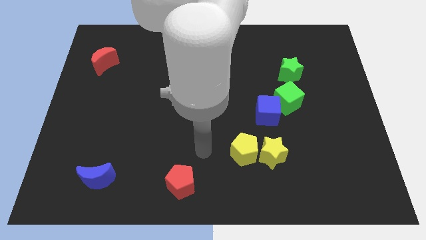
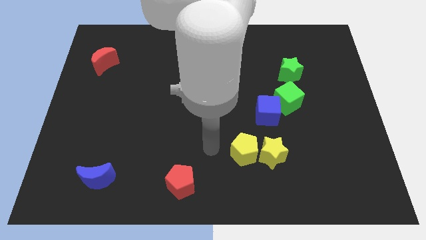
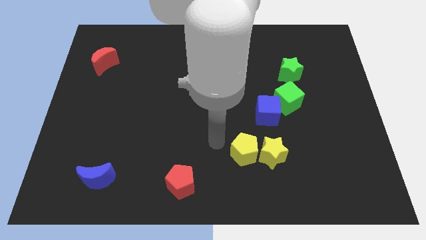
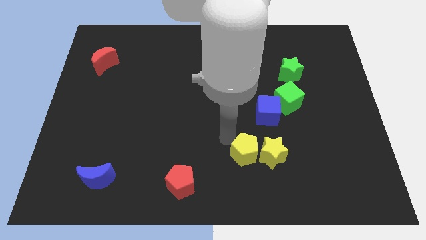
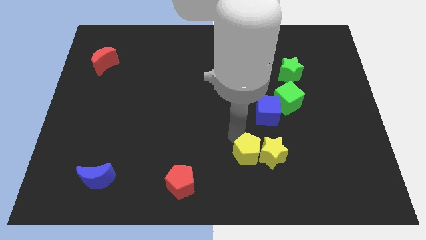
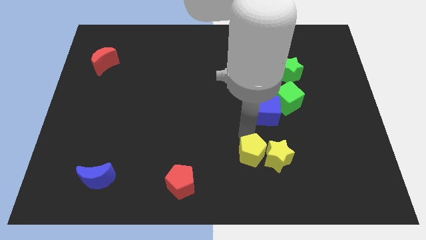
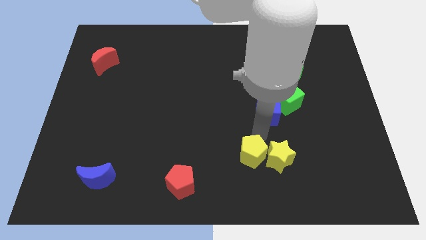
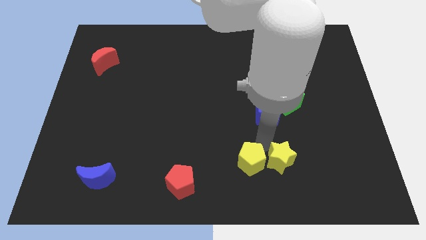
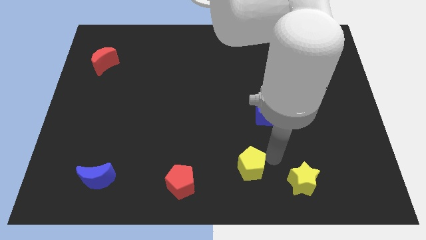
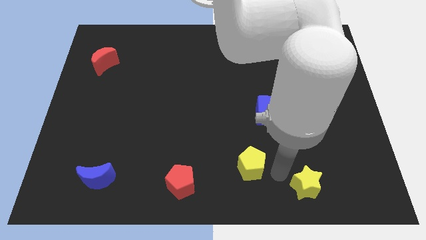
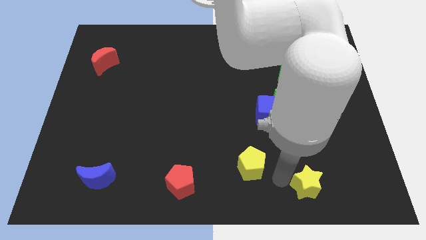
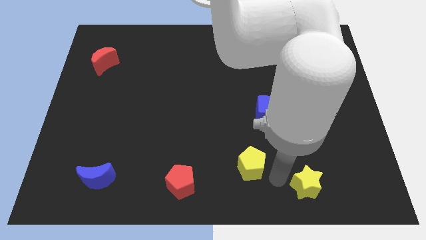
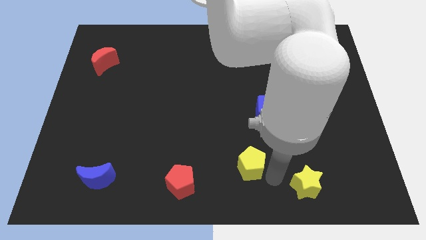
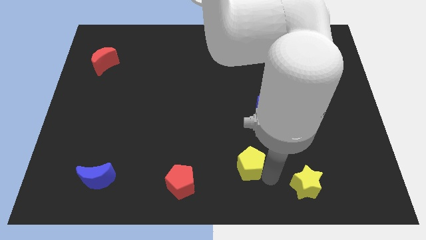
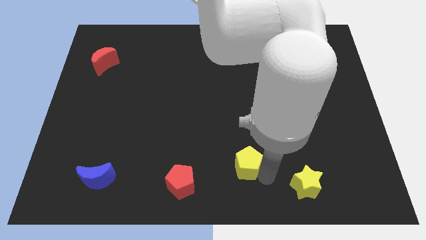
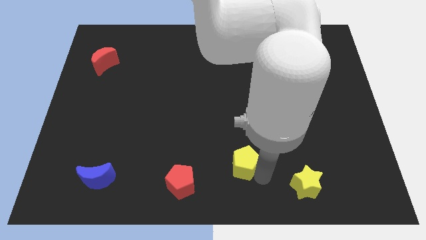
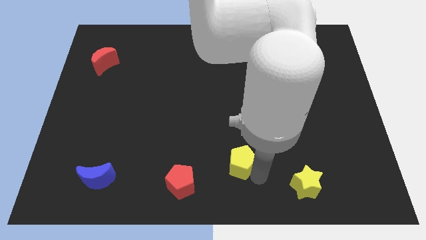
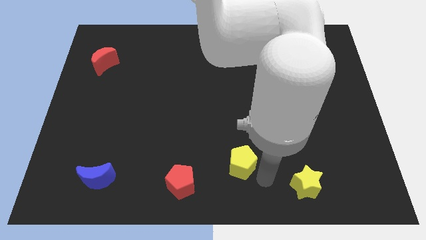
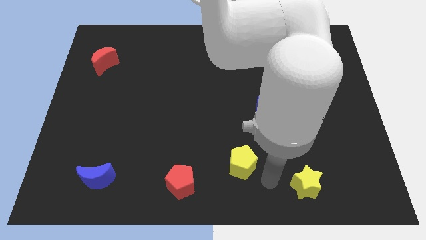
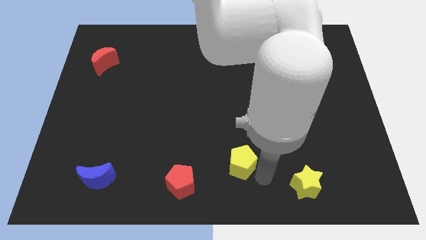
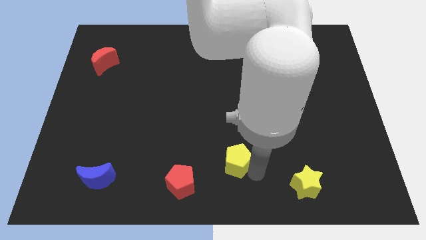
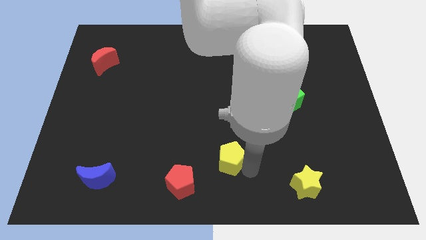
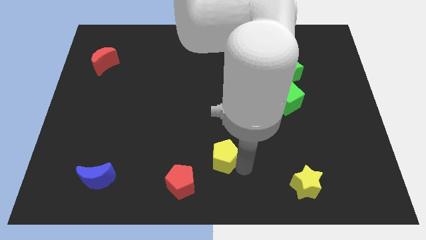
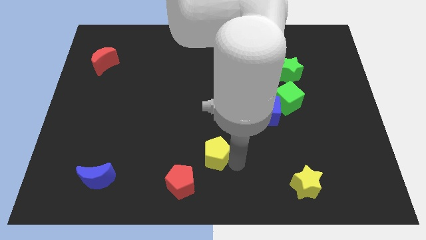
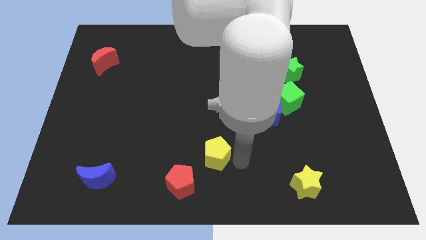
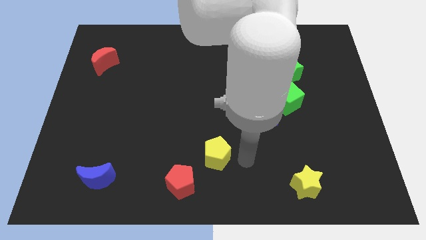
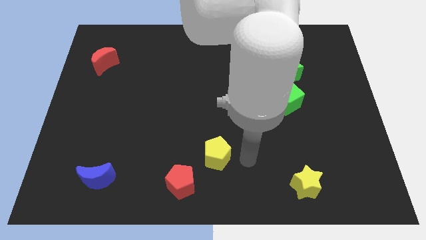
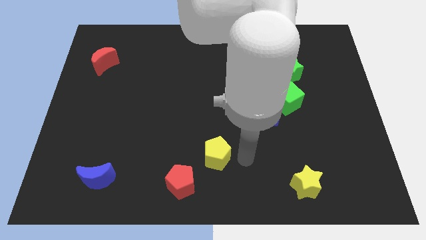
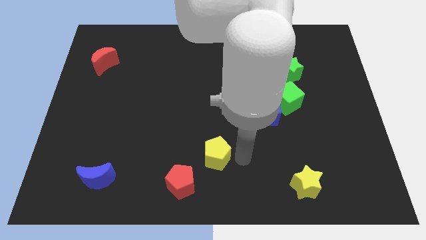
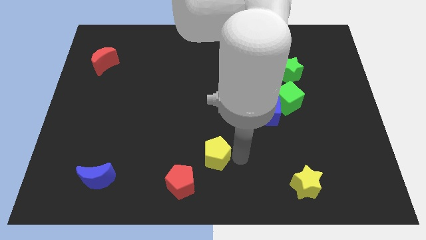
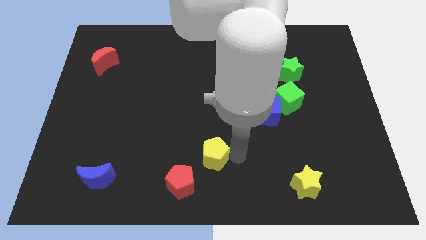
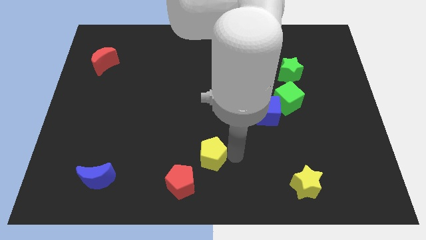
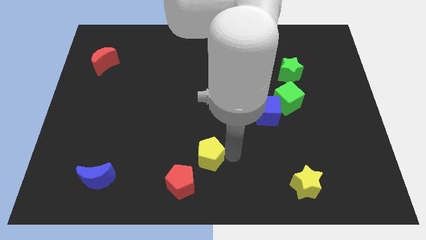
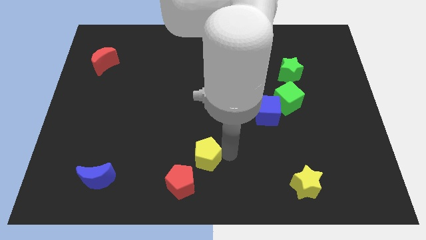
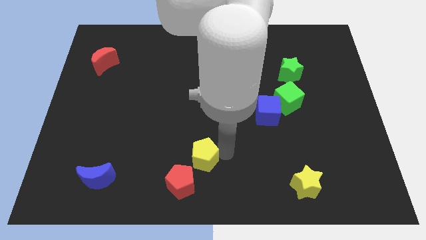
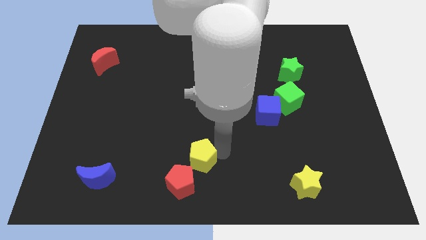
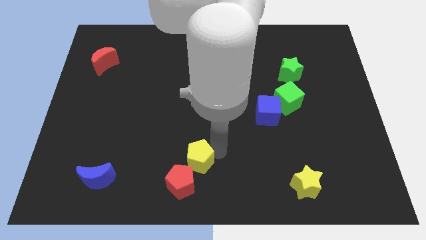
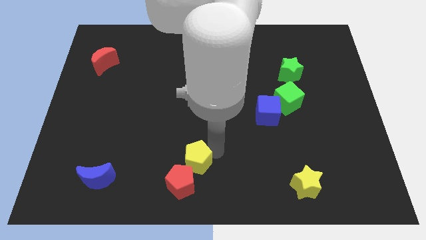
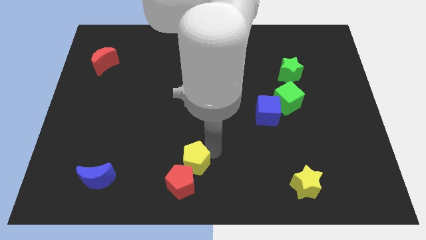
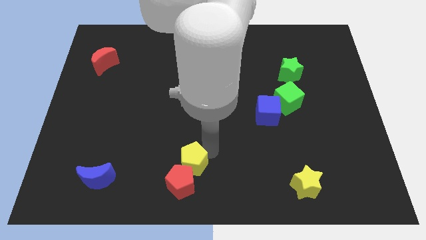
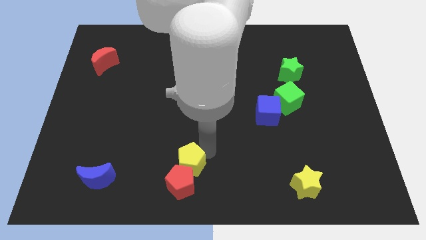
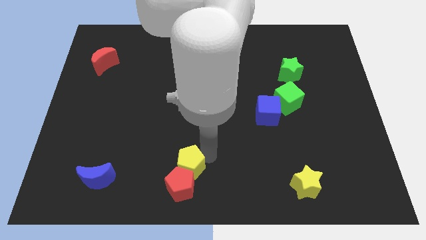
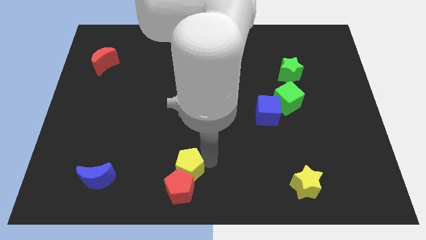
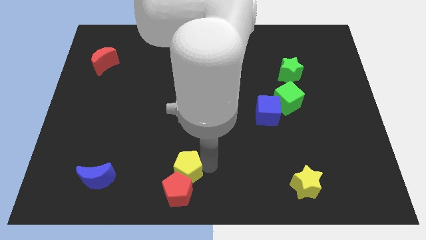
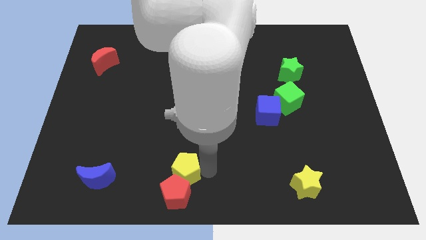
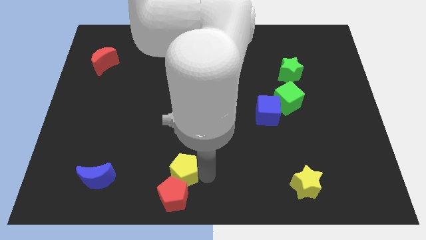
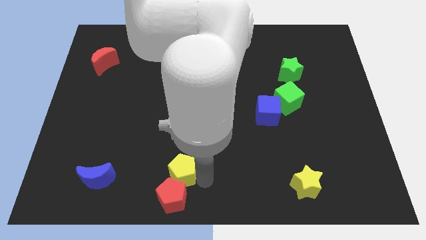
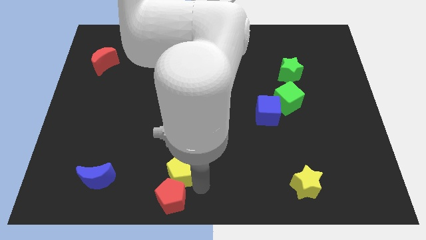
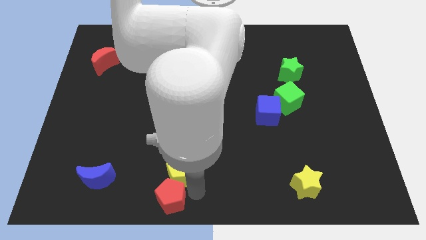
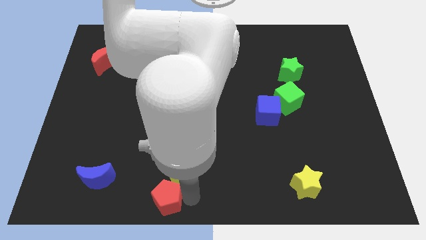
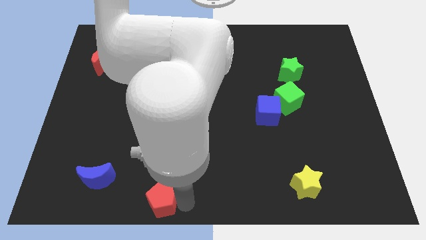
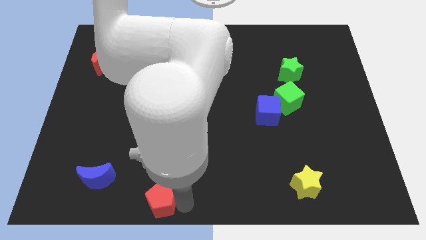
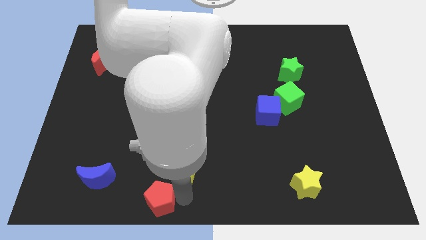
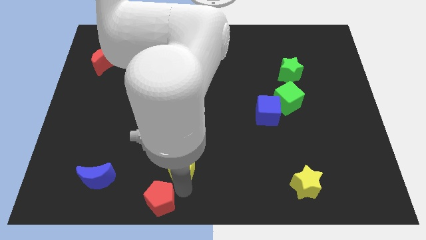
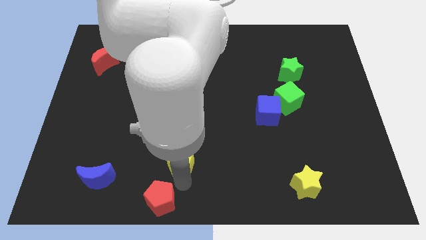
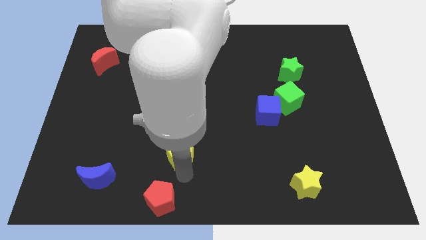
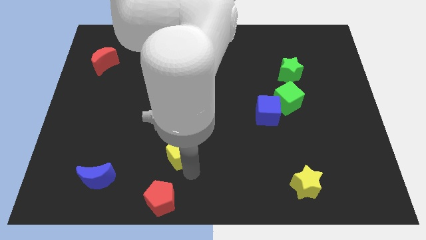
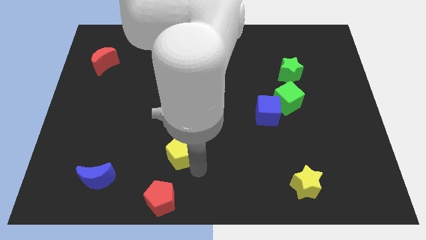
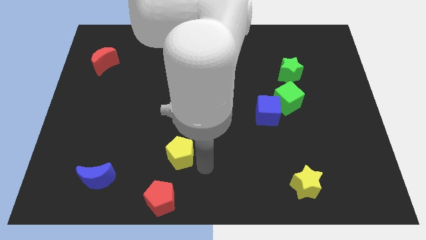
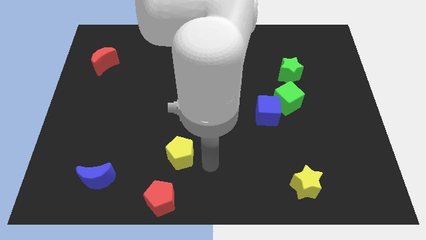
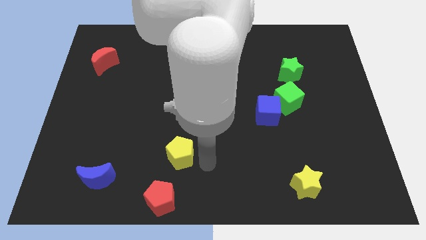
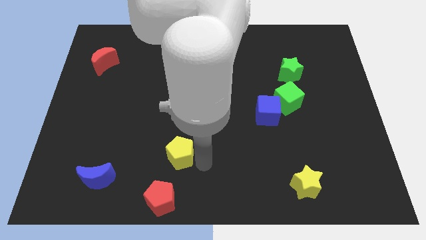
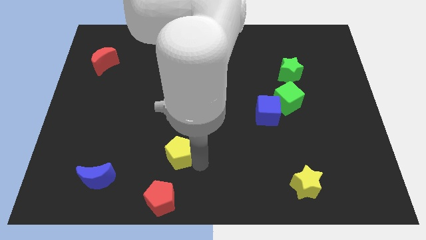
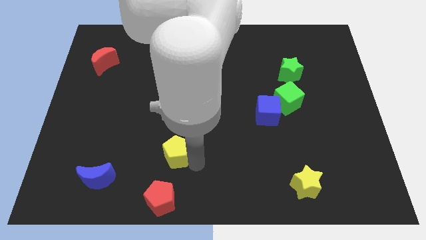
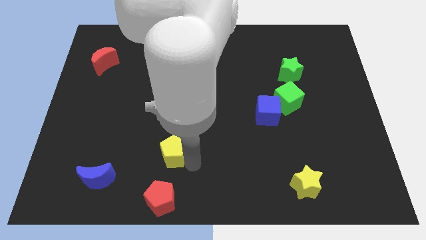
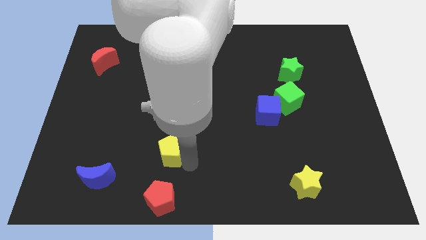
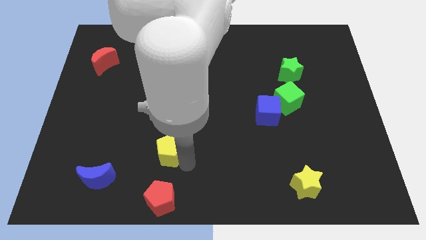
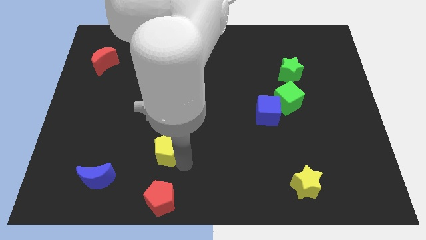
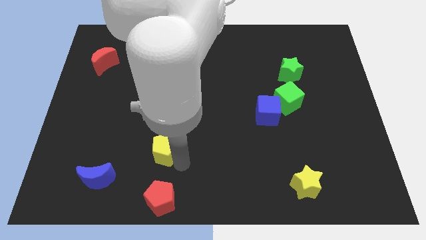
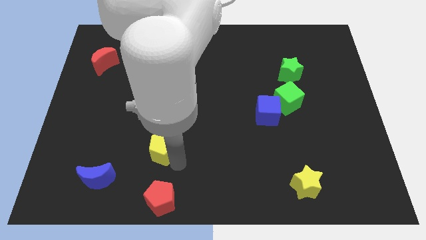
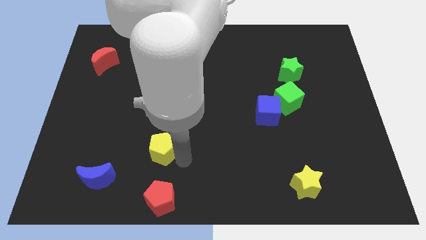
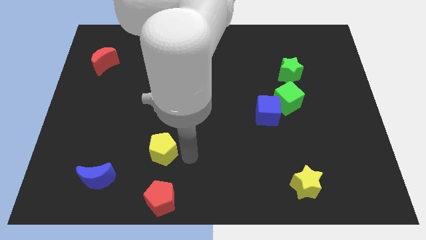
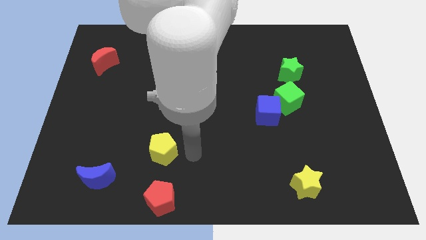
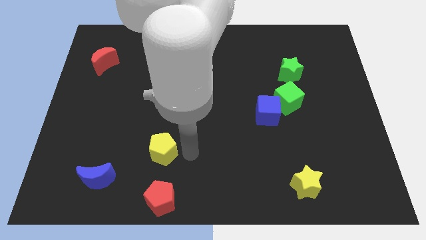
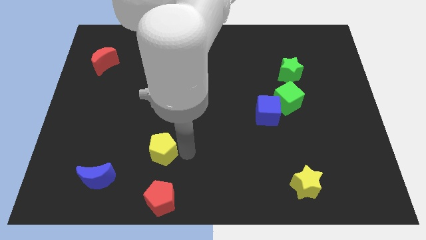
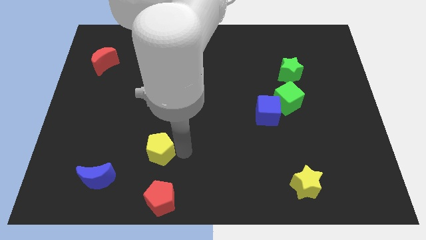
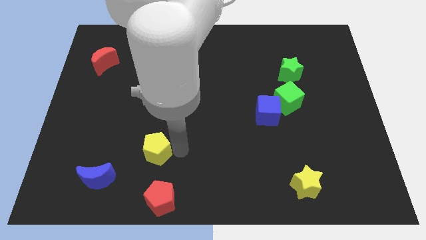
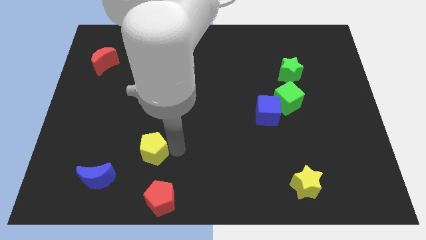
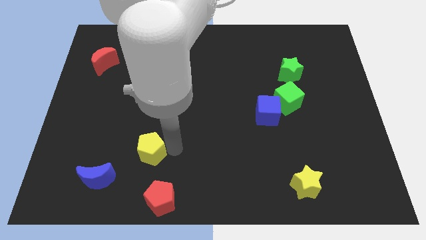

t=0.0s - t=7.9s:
move the yellow pentagon left
